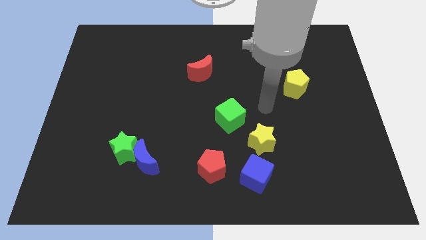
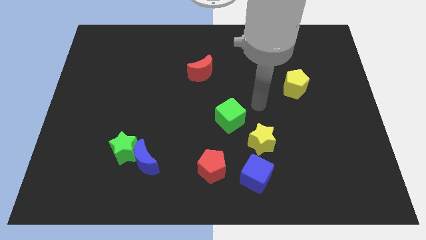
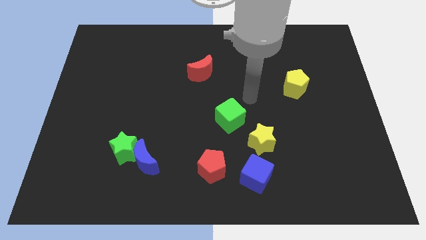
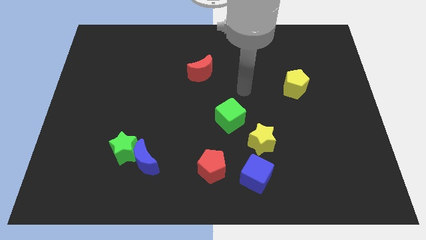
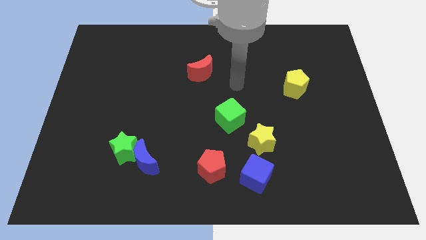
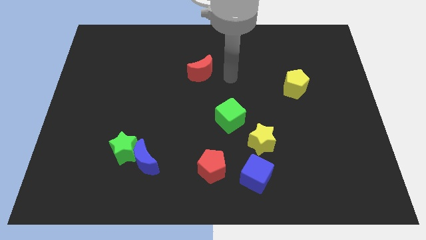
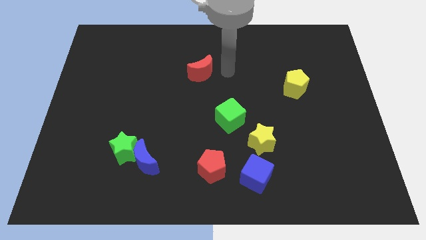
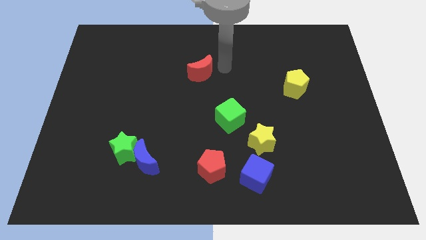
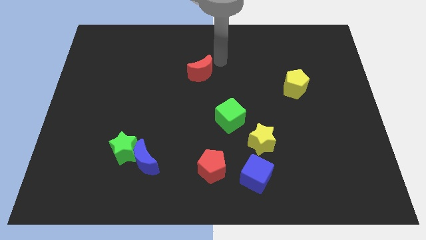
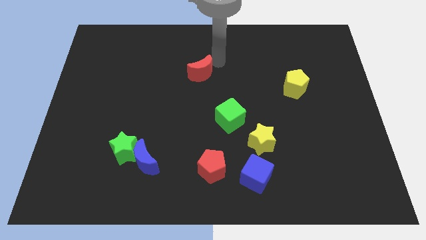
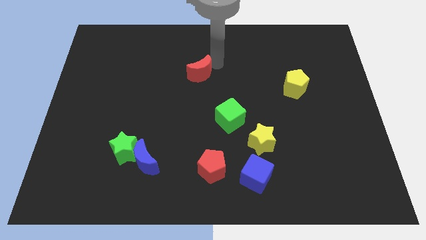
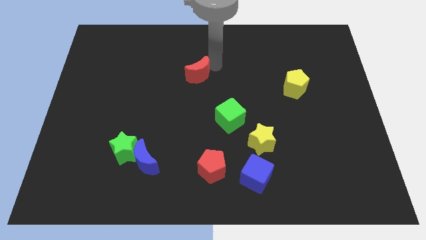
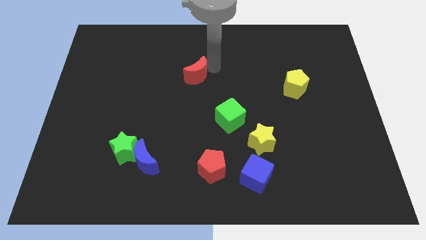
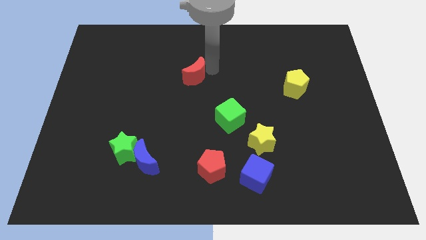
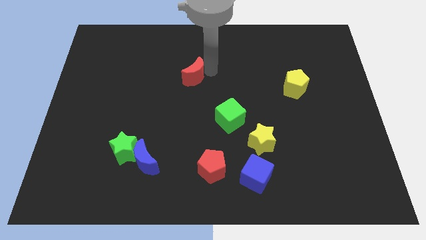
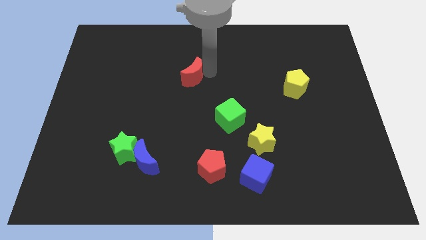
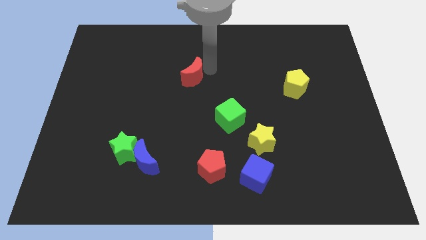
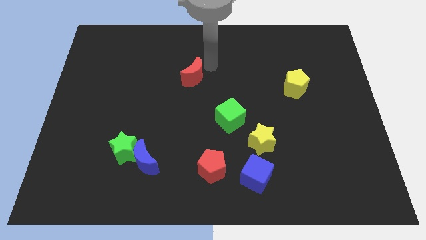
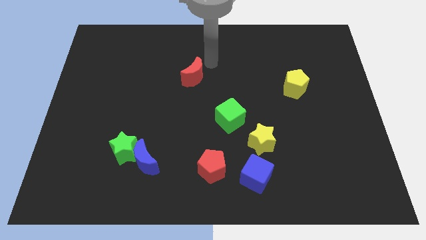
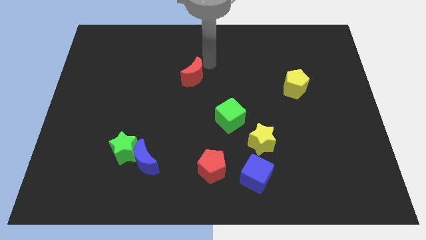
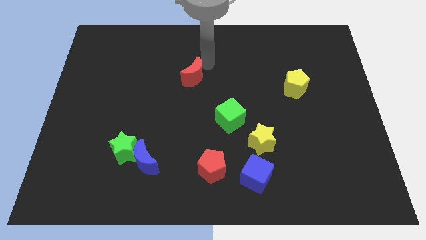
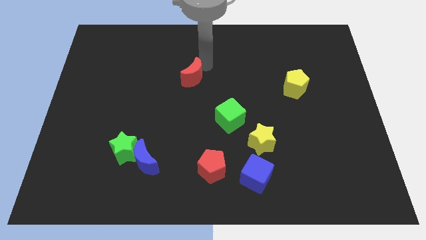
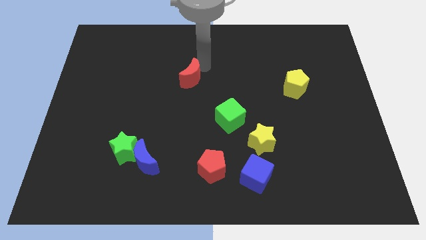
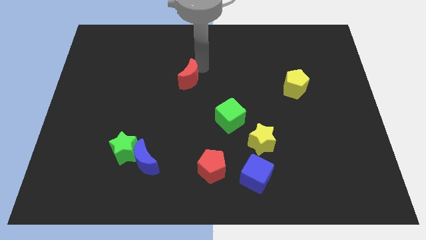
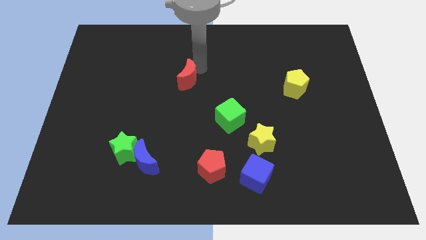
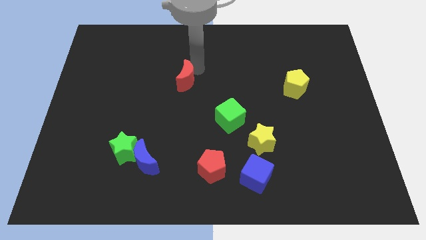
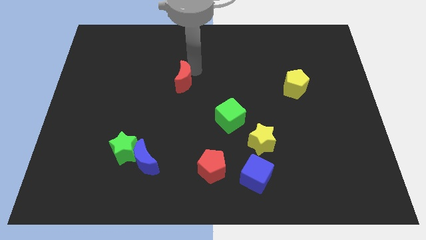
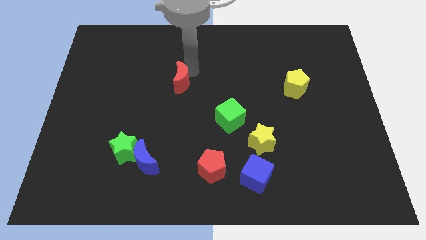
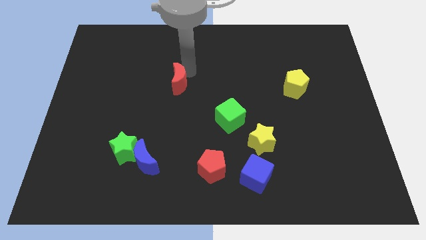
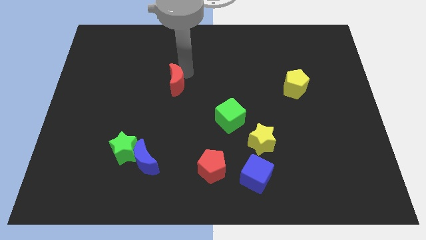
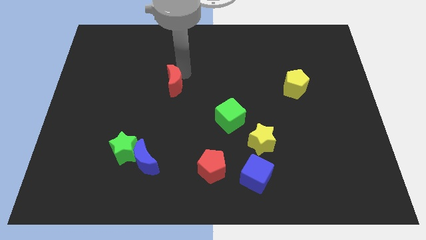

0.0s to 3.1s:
slide the red moon a little bit diagonally downwards and to the left

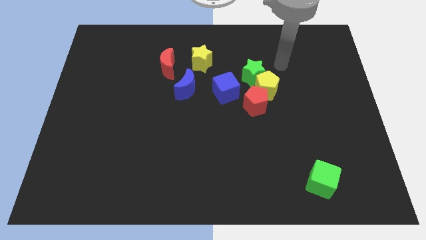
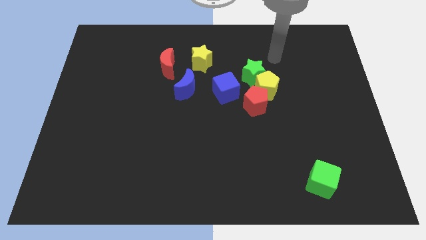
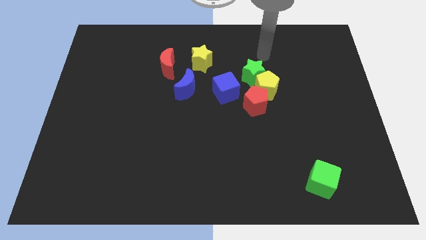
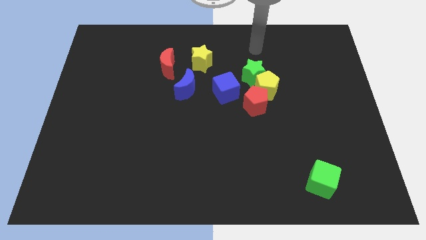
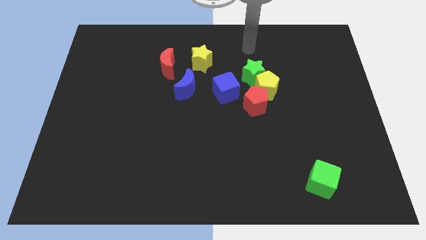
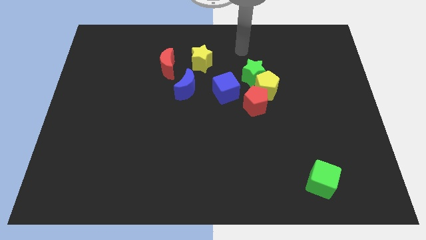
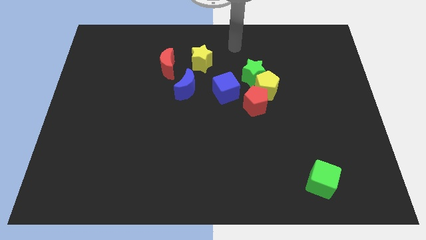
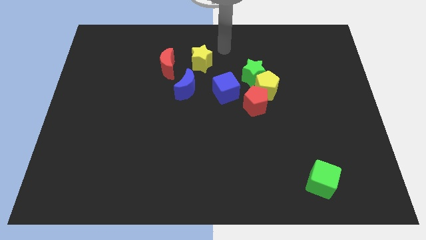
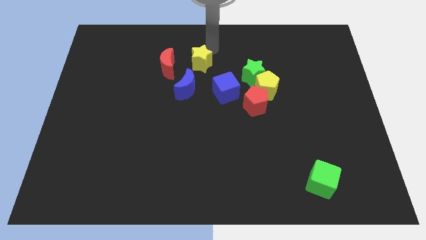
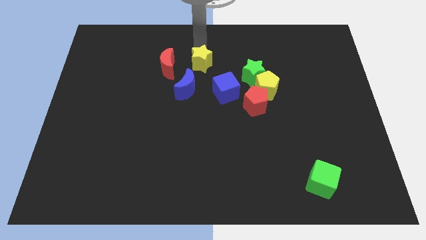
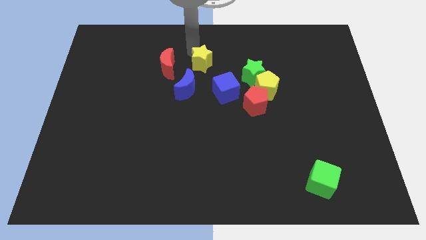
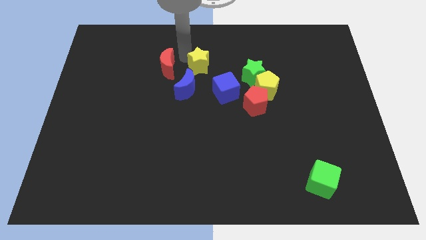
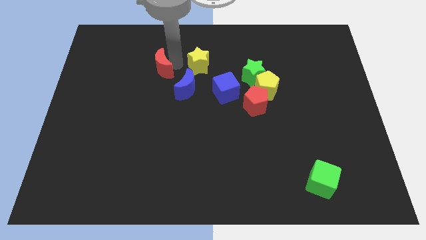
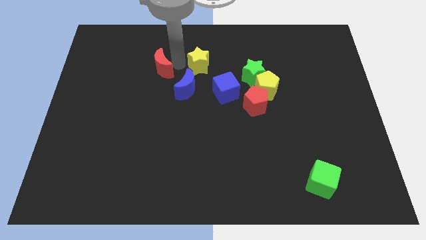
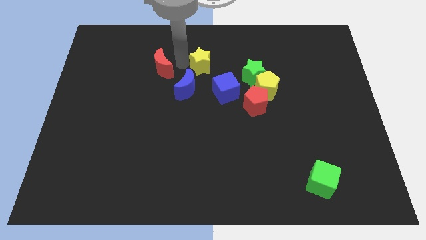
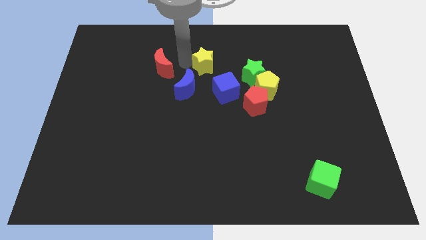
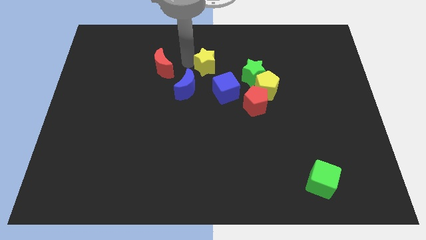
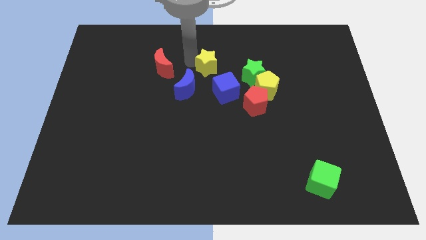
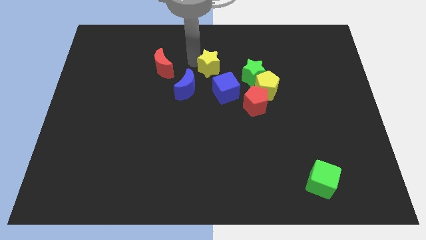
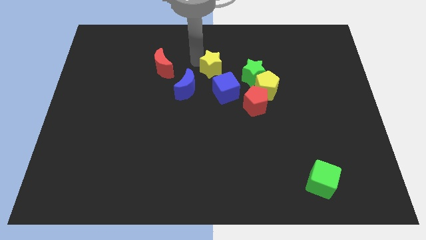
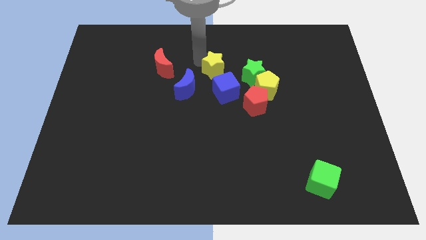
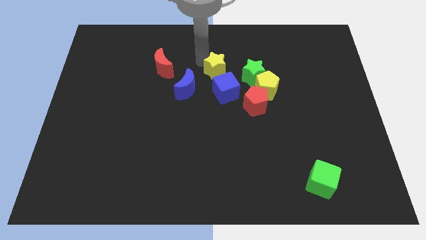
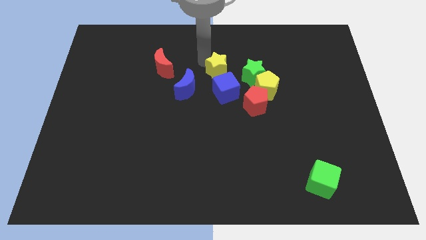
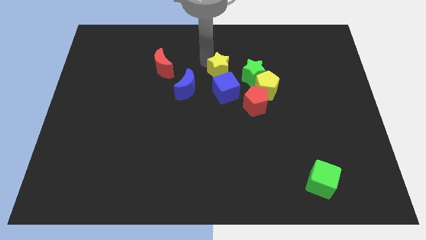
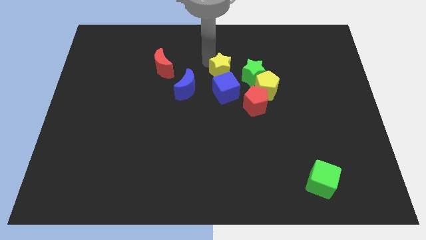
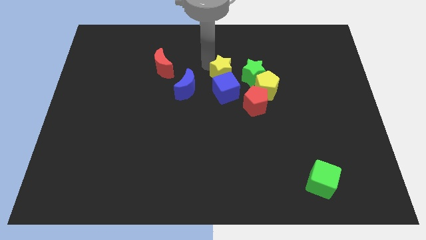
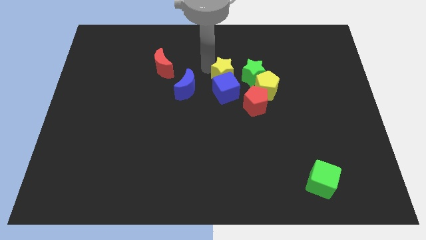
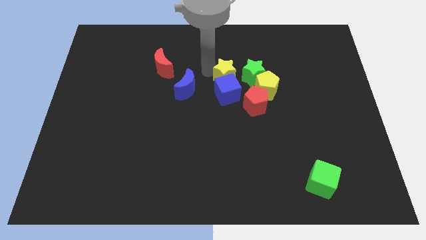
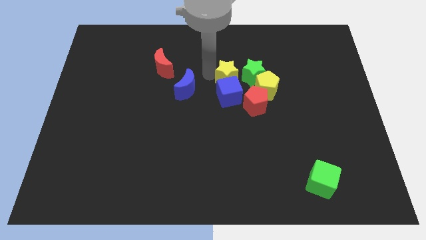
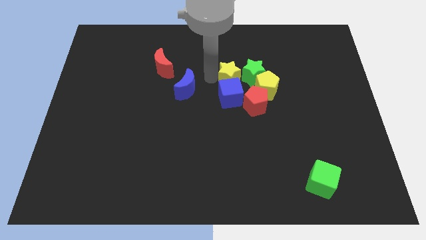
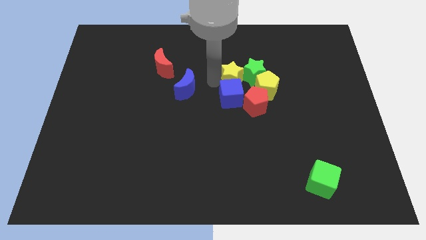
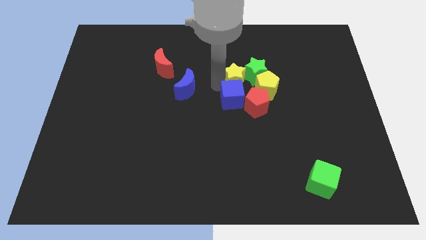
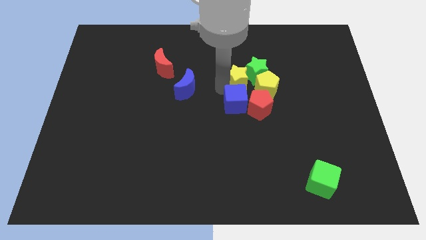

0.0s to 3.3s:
move the yellow star right a little

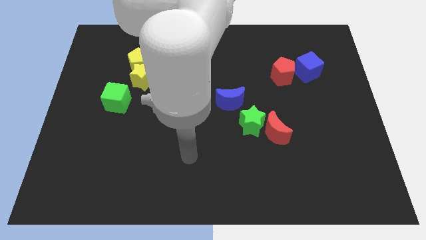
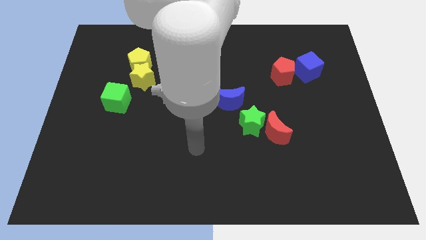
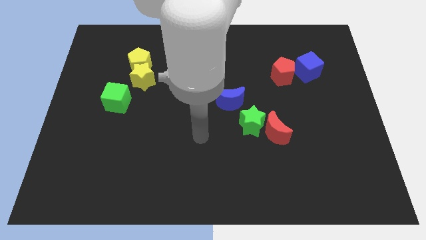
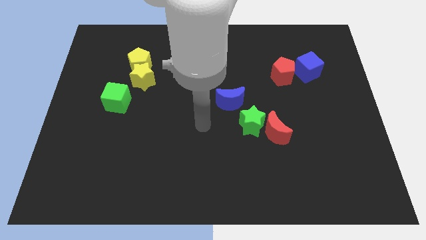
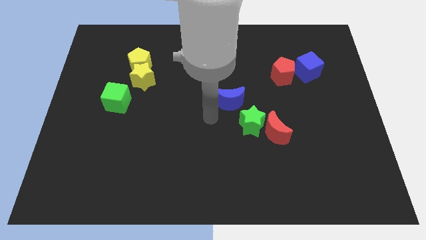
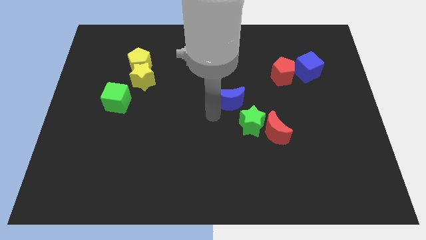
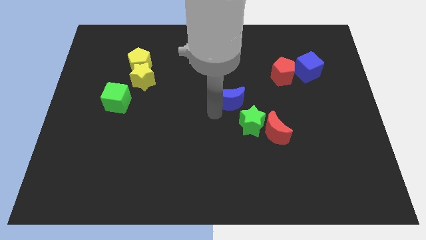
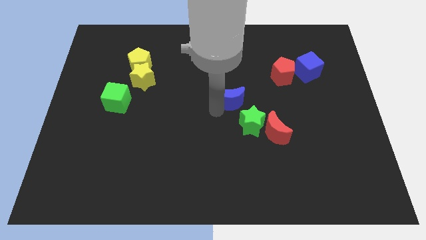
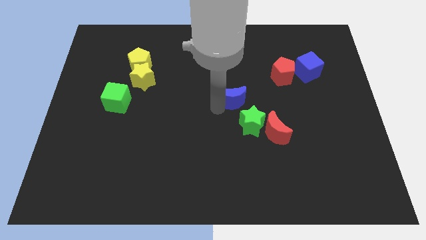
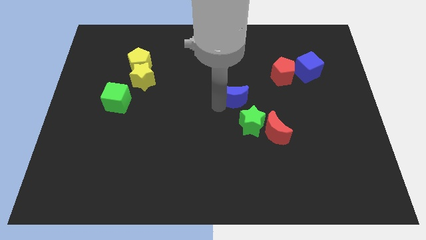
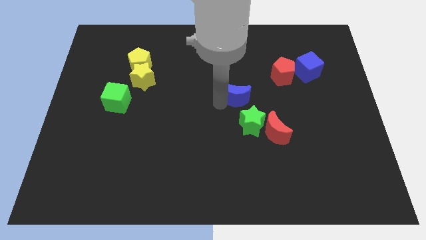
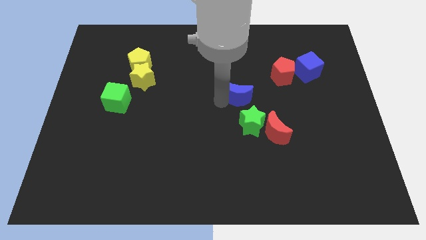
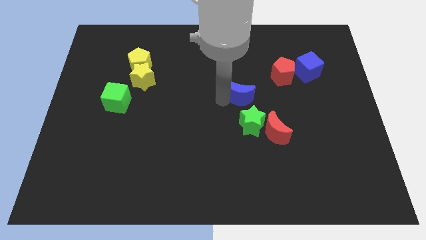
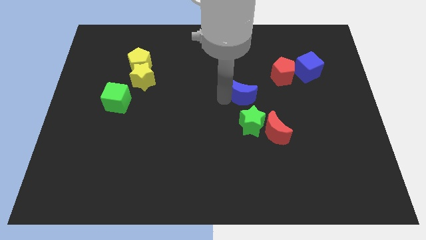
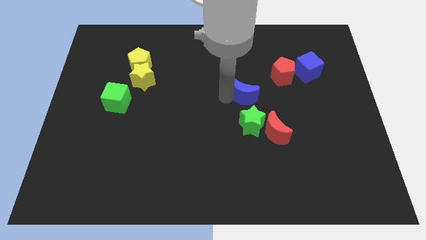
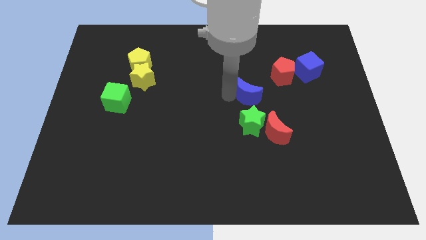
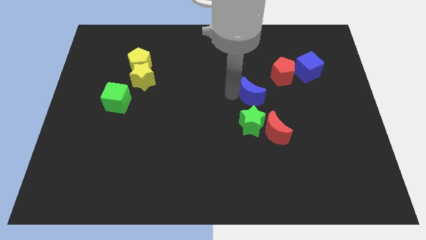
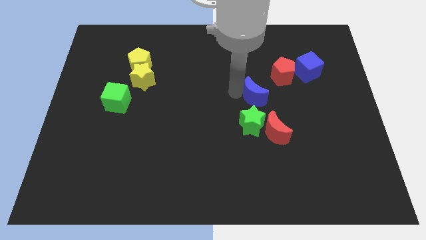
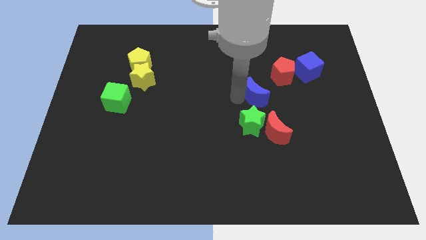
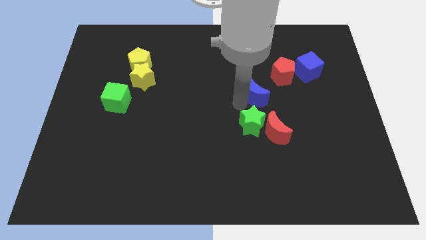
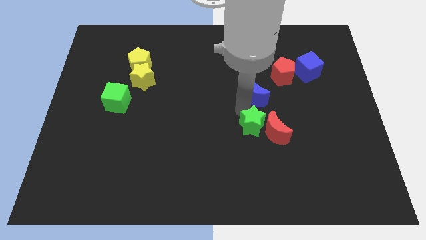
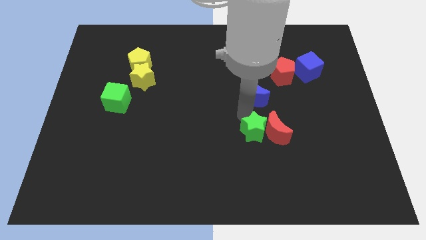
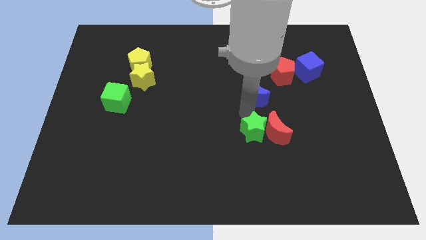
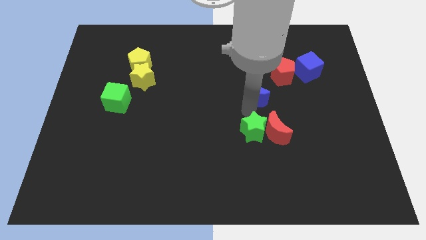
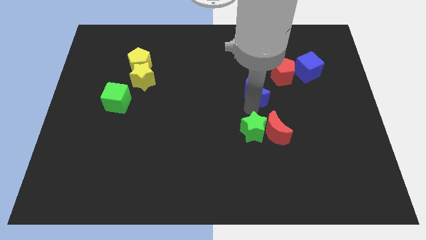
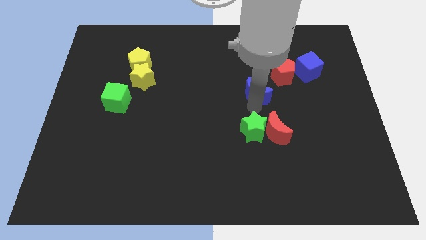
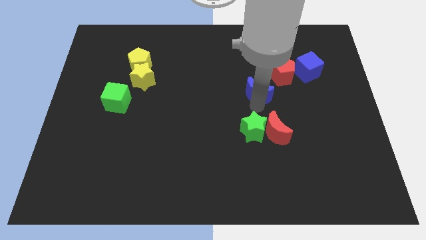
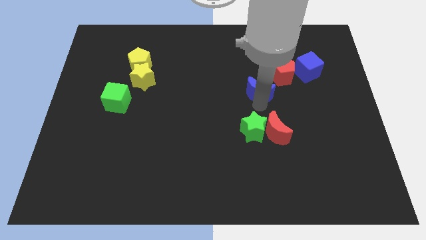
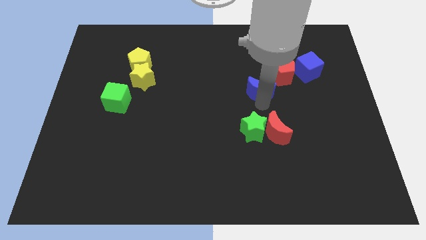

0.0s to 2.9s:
slide the blue moon upwards and to the right diagonally a little
